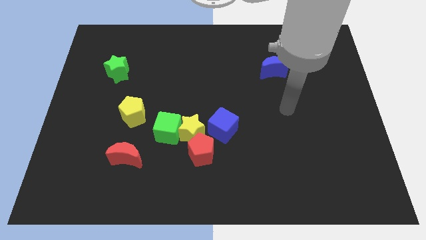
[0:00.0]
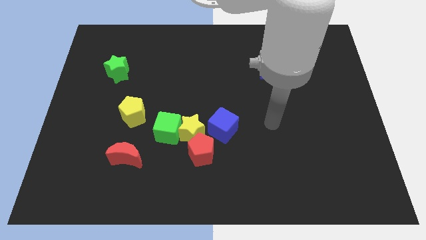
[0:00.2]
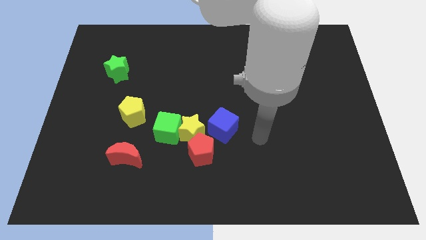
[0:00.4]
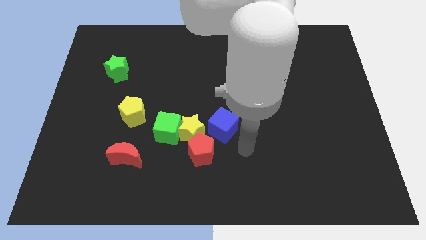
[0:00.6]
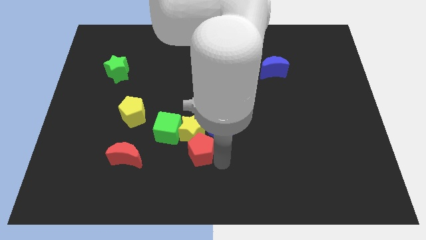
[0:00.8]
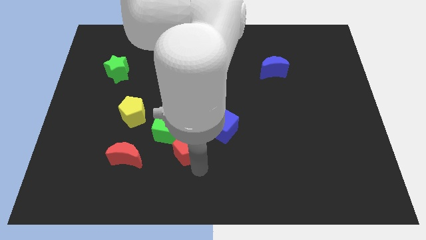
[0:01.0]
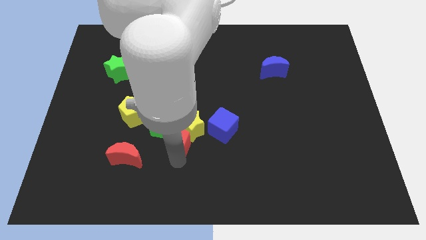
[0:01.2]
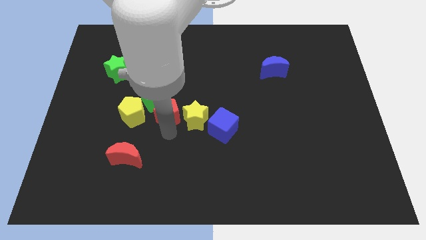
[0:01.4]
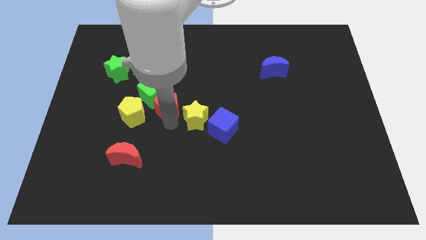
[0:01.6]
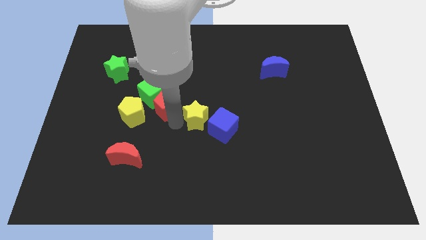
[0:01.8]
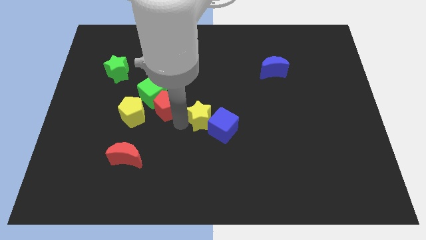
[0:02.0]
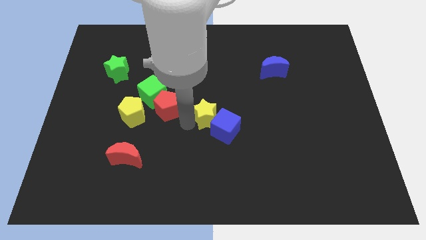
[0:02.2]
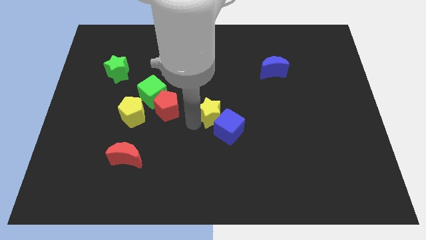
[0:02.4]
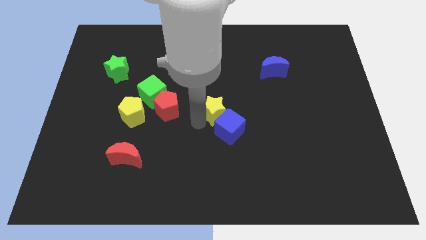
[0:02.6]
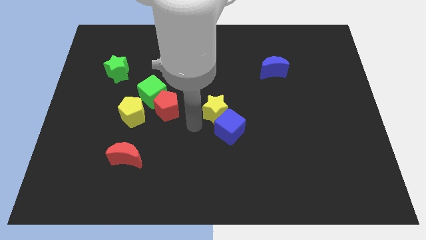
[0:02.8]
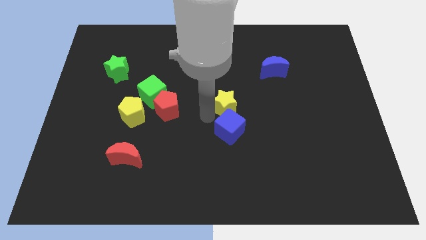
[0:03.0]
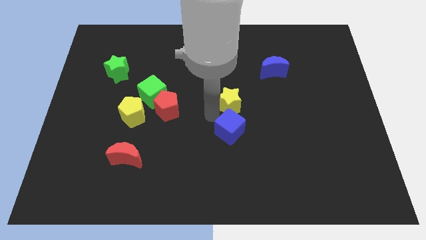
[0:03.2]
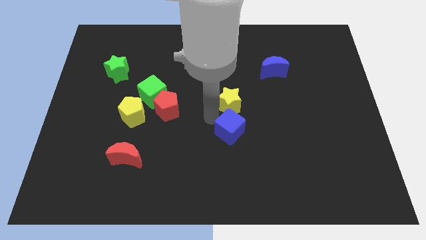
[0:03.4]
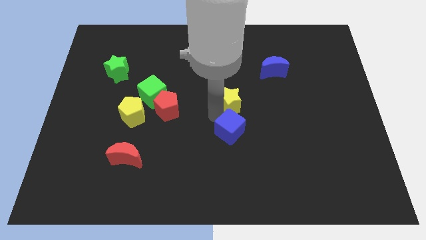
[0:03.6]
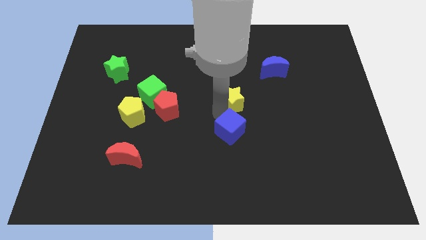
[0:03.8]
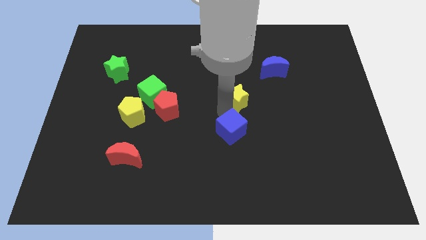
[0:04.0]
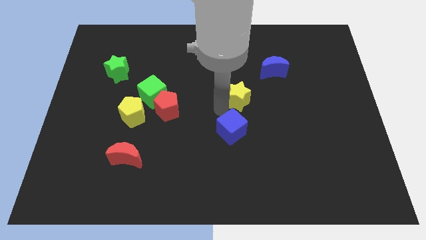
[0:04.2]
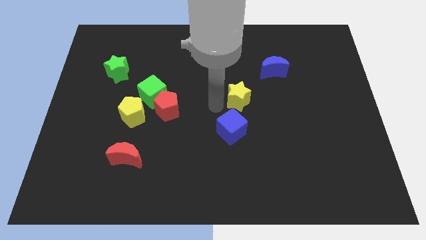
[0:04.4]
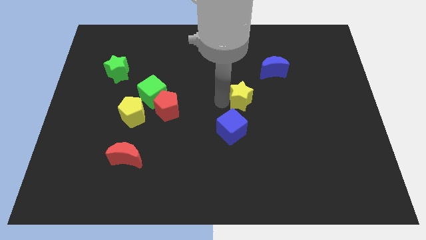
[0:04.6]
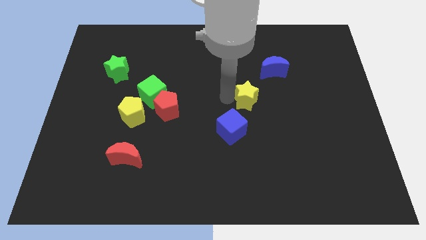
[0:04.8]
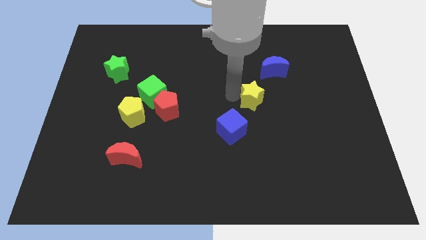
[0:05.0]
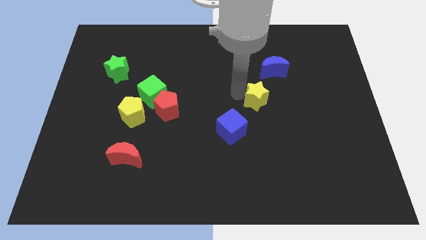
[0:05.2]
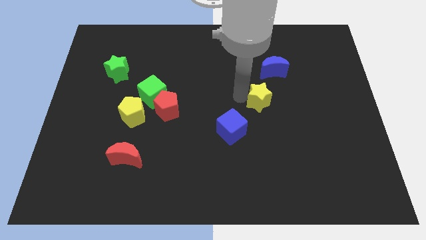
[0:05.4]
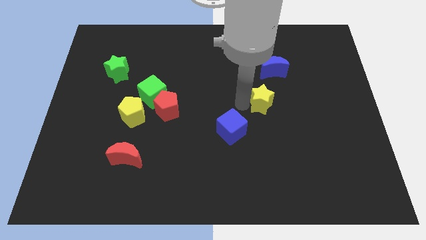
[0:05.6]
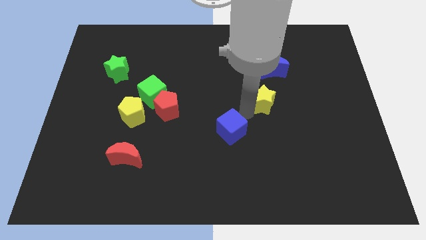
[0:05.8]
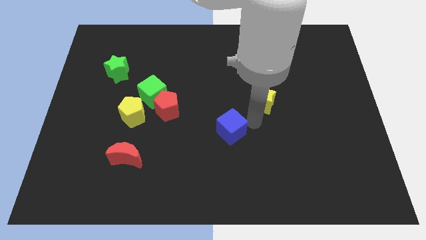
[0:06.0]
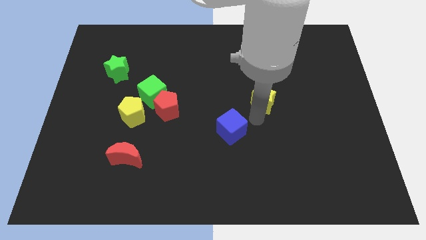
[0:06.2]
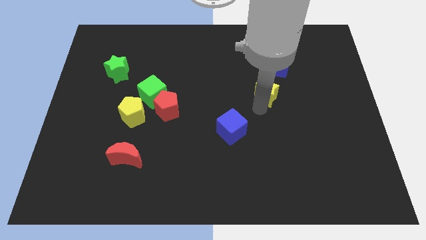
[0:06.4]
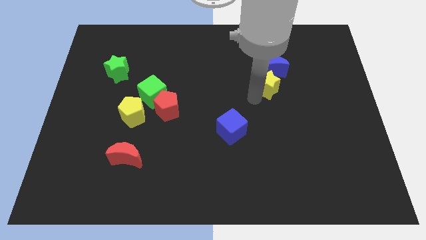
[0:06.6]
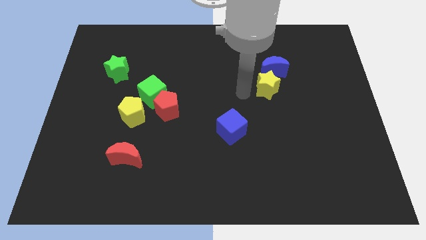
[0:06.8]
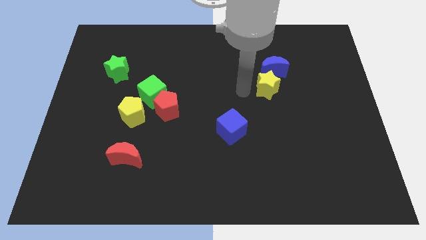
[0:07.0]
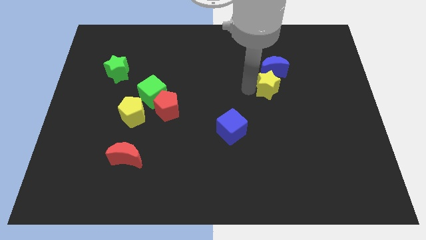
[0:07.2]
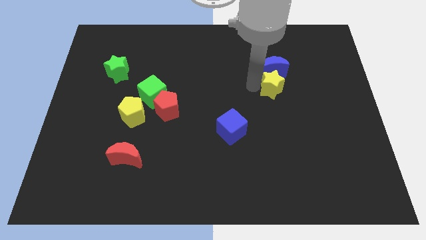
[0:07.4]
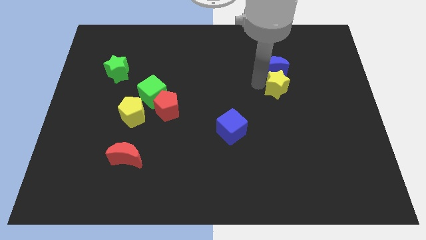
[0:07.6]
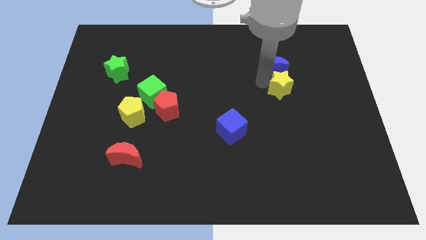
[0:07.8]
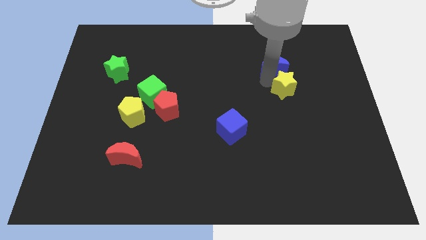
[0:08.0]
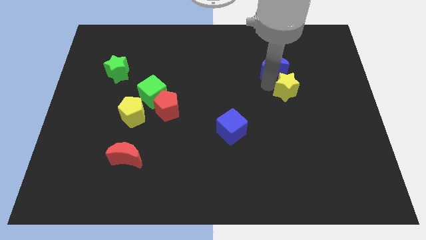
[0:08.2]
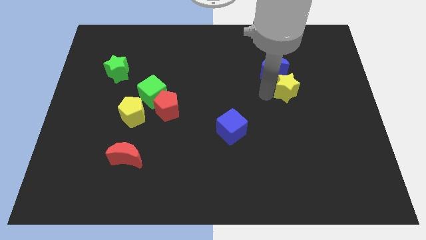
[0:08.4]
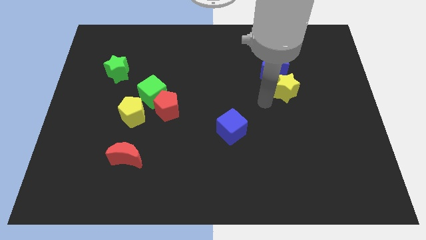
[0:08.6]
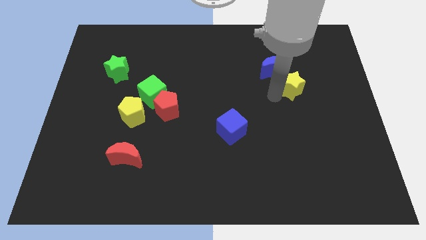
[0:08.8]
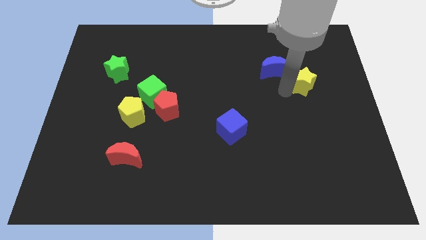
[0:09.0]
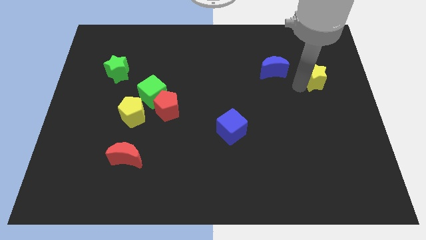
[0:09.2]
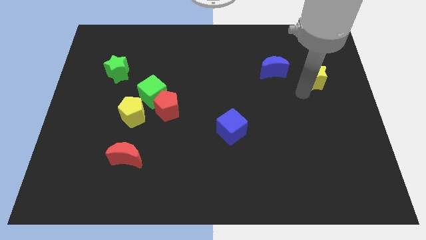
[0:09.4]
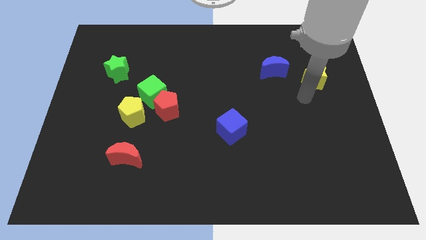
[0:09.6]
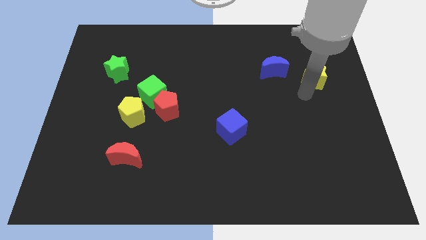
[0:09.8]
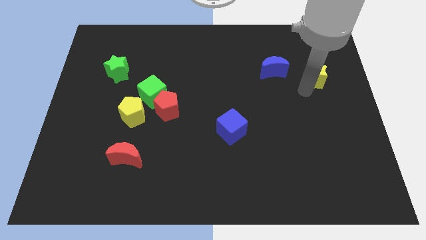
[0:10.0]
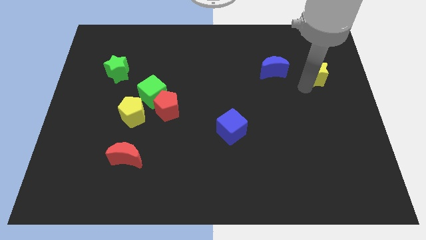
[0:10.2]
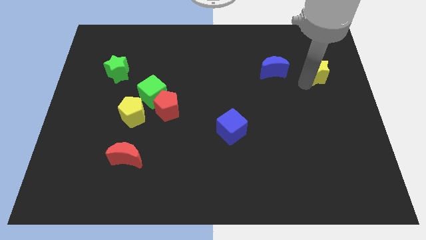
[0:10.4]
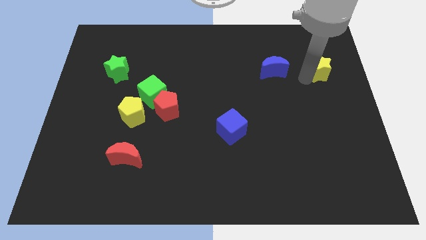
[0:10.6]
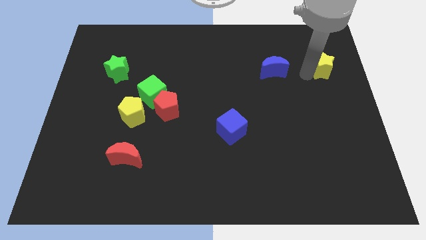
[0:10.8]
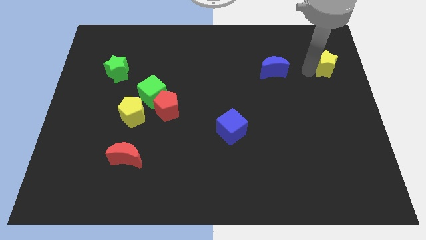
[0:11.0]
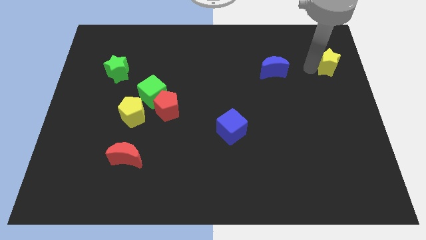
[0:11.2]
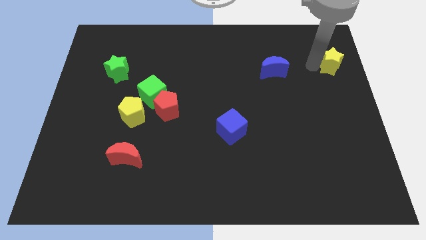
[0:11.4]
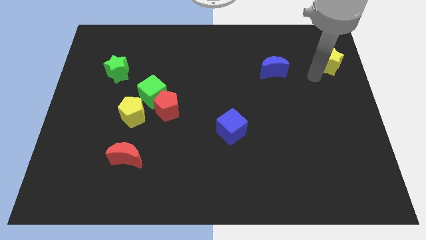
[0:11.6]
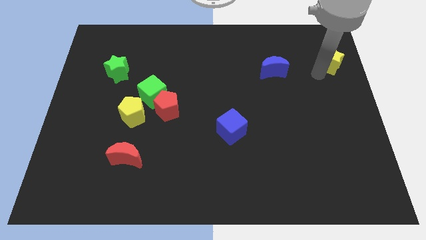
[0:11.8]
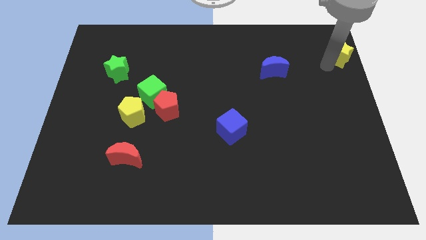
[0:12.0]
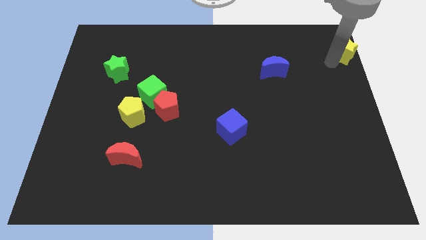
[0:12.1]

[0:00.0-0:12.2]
move the yellow star to the top right
